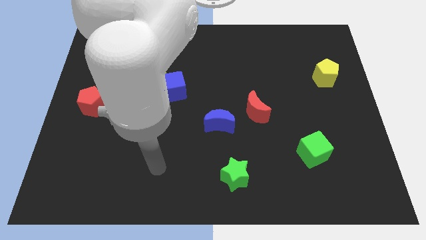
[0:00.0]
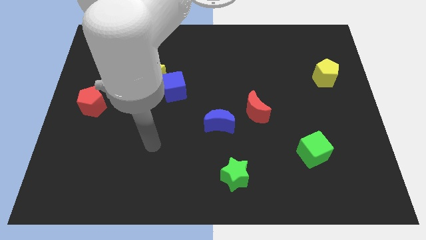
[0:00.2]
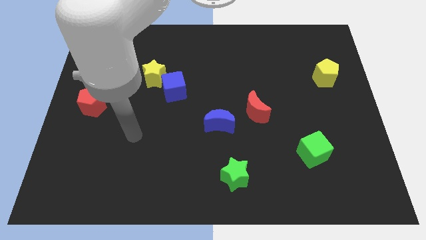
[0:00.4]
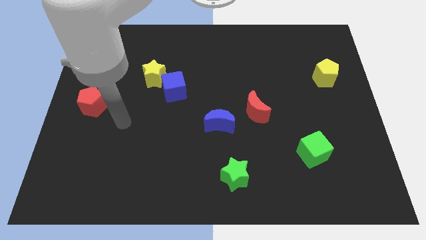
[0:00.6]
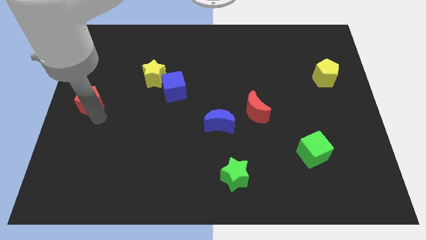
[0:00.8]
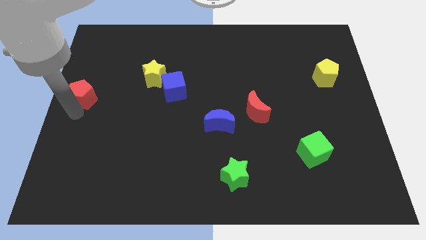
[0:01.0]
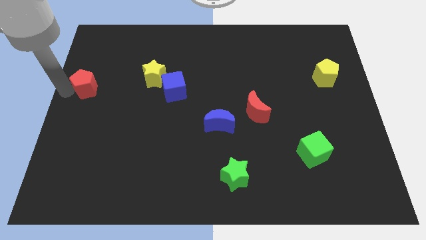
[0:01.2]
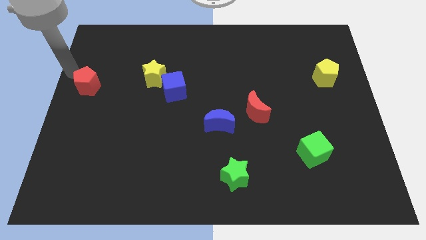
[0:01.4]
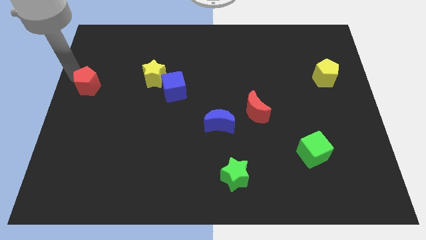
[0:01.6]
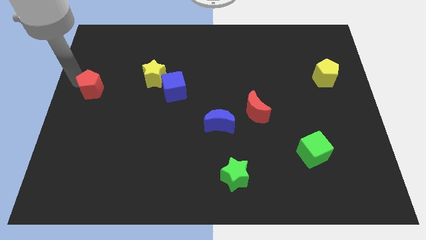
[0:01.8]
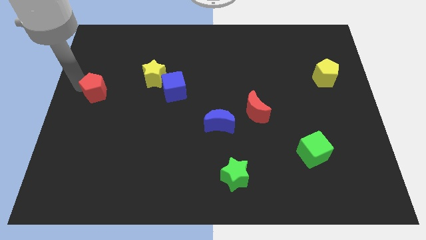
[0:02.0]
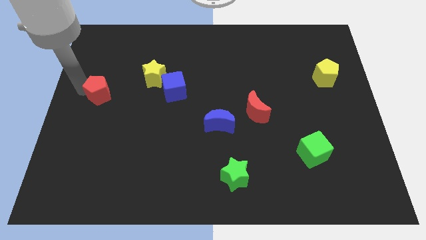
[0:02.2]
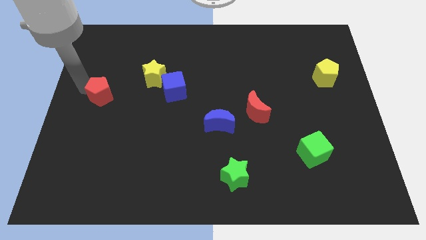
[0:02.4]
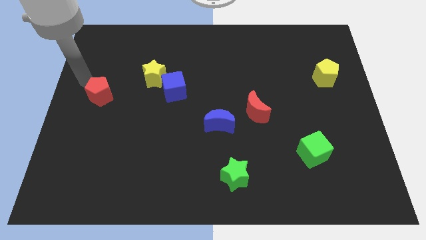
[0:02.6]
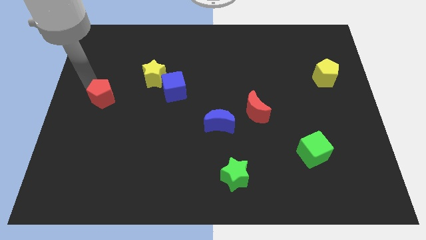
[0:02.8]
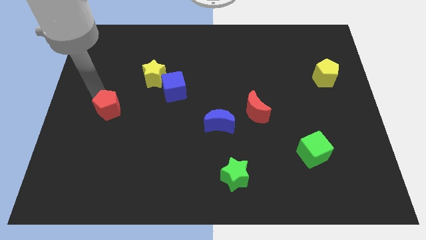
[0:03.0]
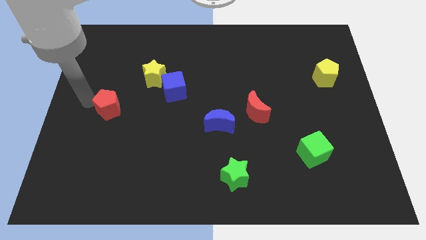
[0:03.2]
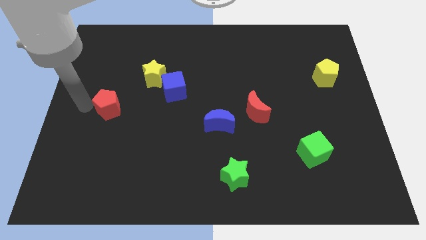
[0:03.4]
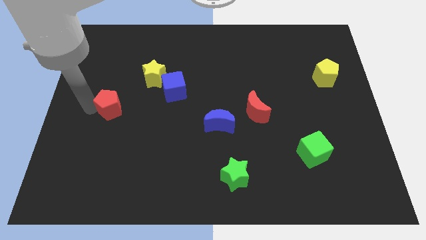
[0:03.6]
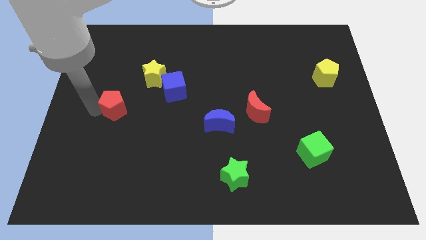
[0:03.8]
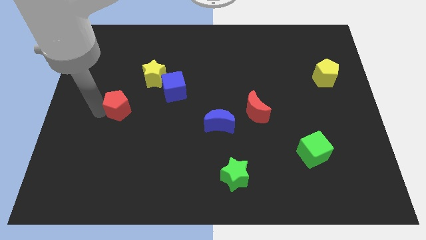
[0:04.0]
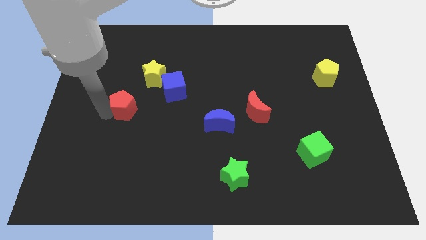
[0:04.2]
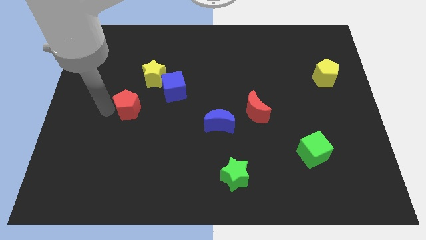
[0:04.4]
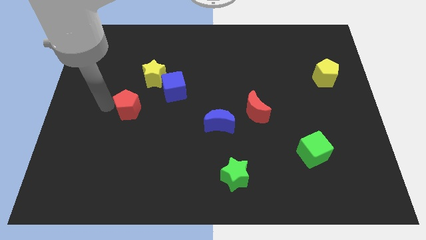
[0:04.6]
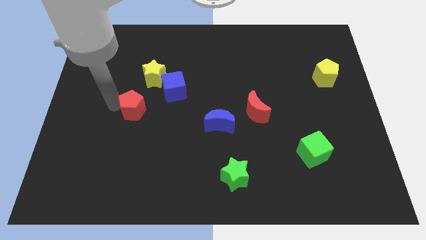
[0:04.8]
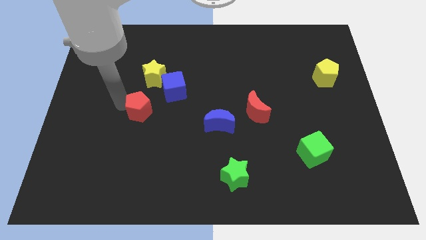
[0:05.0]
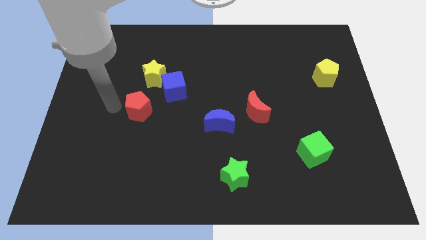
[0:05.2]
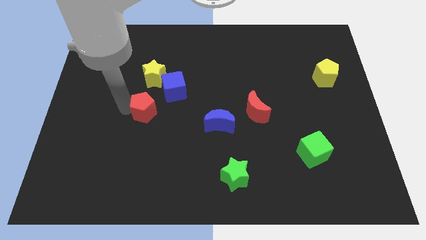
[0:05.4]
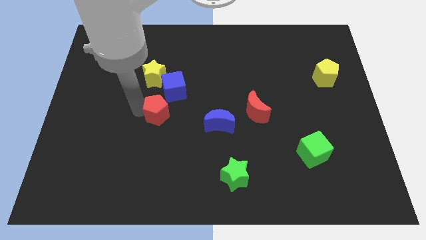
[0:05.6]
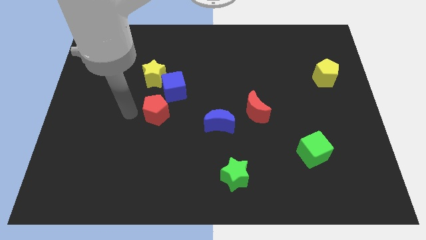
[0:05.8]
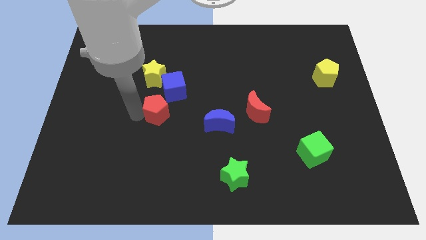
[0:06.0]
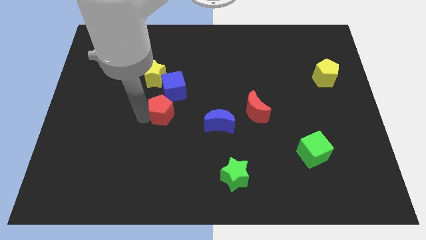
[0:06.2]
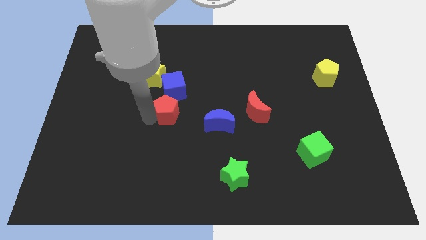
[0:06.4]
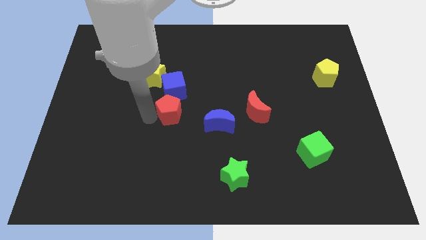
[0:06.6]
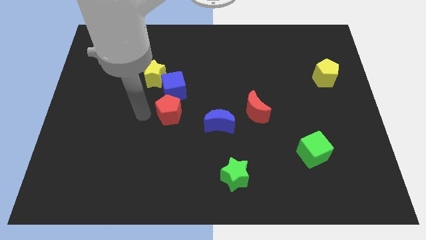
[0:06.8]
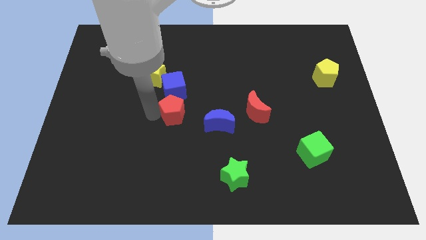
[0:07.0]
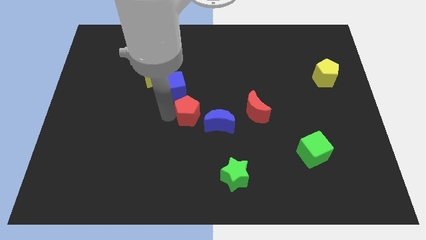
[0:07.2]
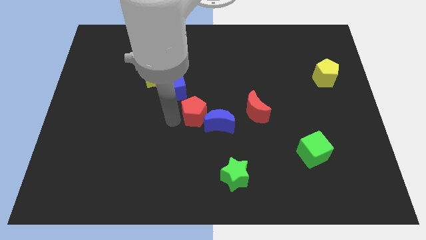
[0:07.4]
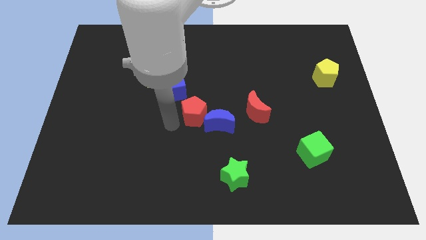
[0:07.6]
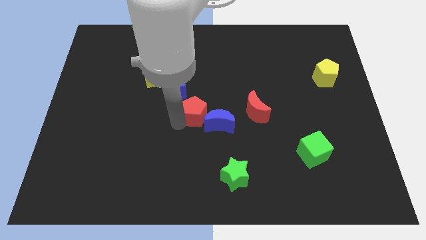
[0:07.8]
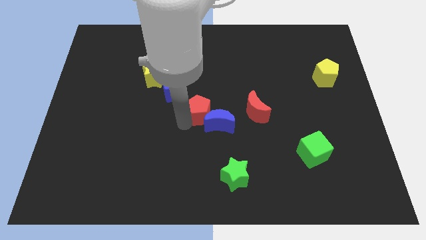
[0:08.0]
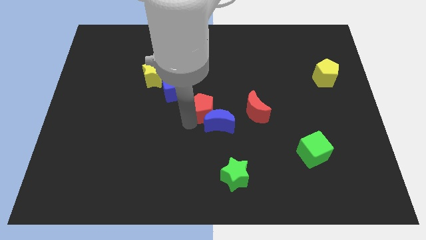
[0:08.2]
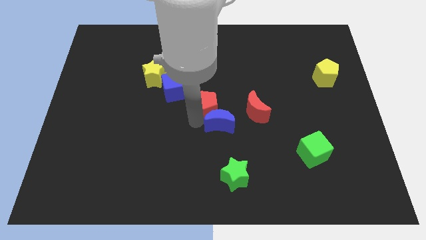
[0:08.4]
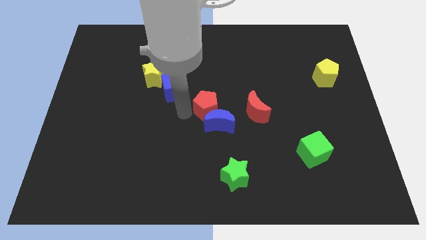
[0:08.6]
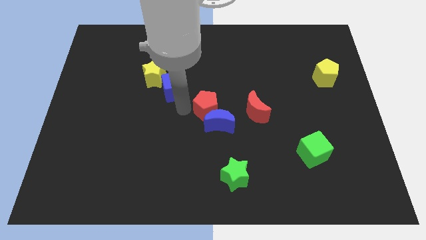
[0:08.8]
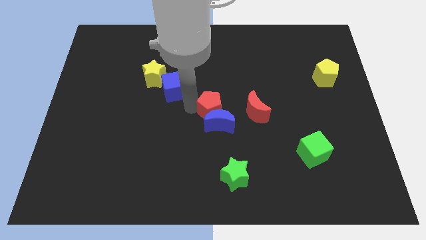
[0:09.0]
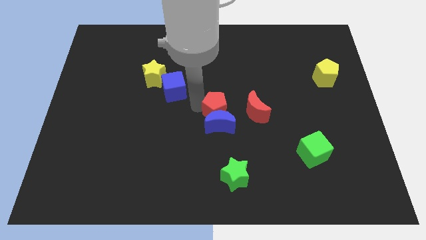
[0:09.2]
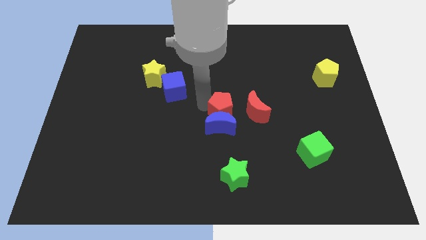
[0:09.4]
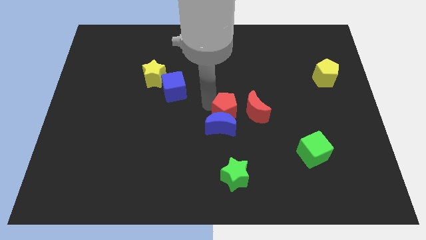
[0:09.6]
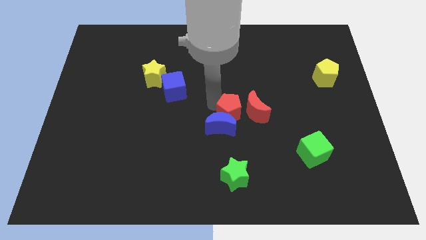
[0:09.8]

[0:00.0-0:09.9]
slide the red pentagon towards the red moon

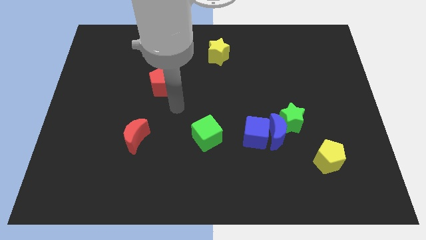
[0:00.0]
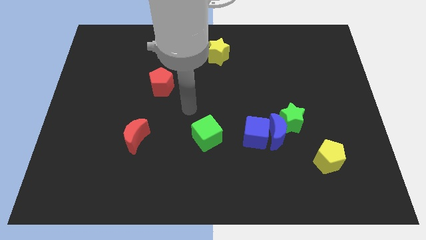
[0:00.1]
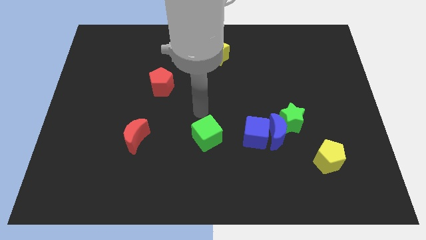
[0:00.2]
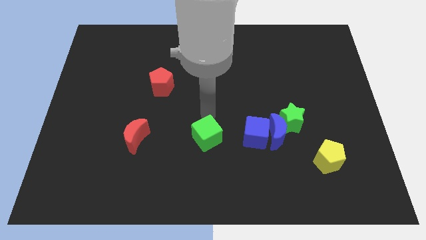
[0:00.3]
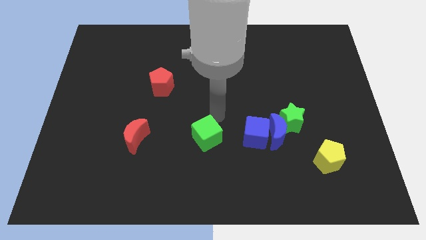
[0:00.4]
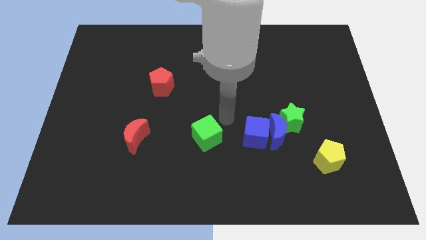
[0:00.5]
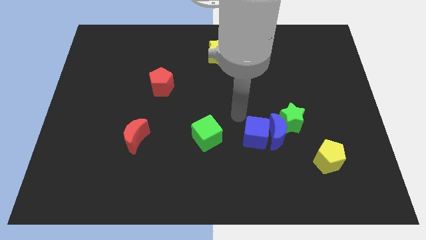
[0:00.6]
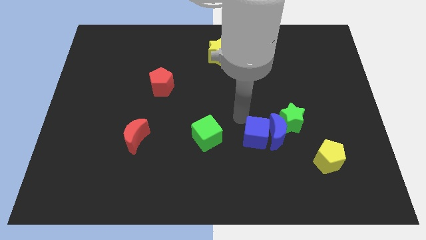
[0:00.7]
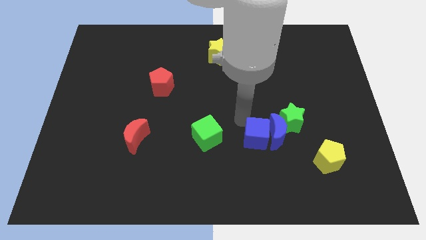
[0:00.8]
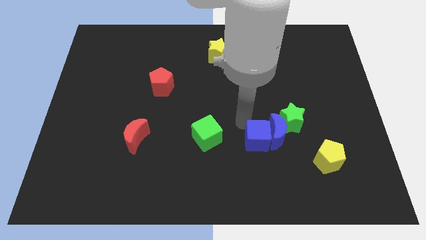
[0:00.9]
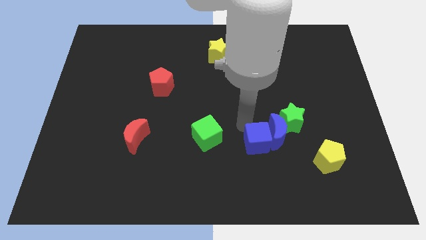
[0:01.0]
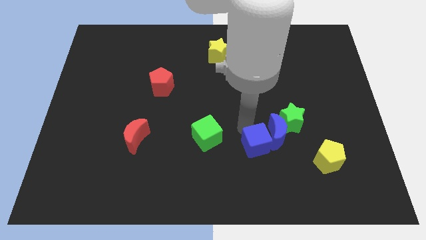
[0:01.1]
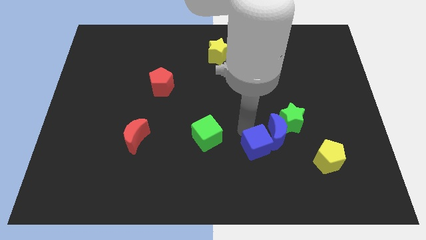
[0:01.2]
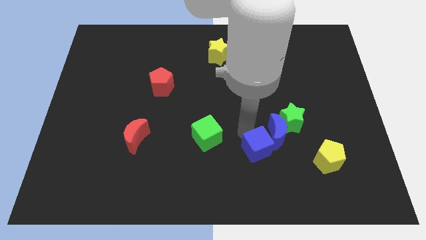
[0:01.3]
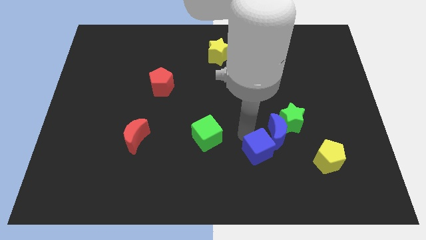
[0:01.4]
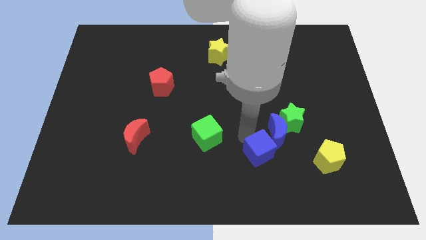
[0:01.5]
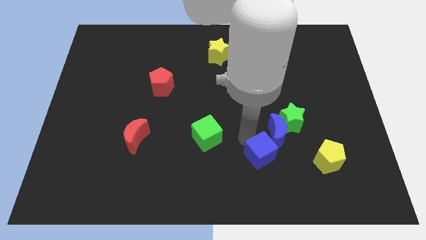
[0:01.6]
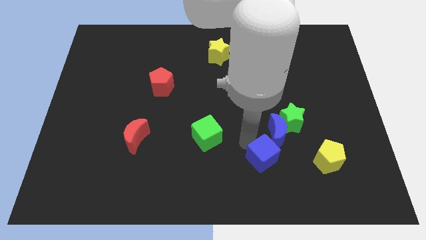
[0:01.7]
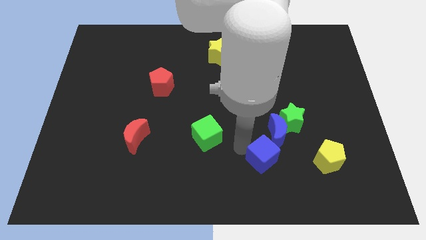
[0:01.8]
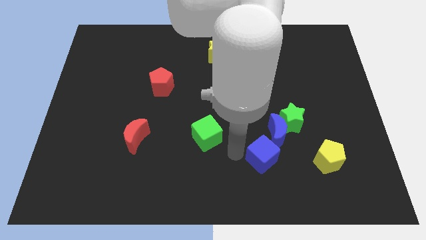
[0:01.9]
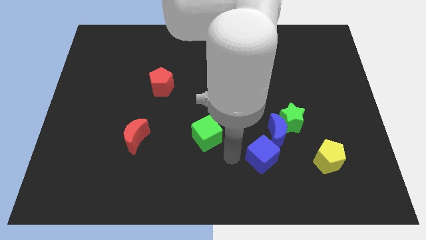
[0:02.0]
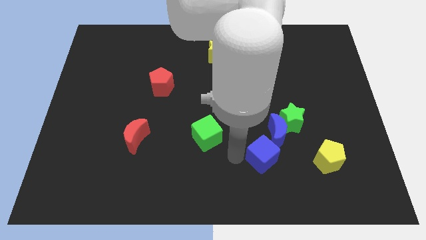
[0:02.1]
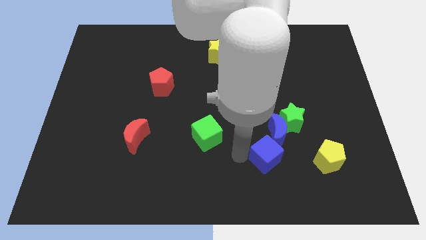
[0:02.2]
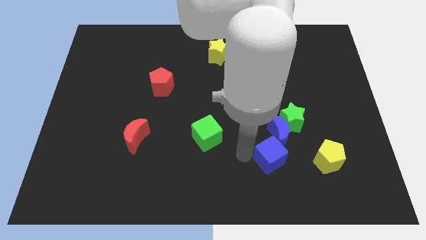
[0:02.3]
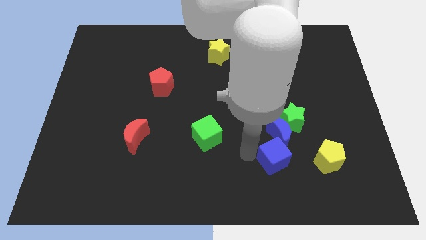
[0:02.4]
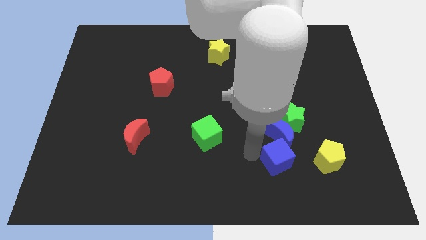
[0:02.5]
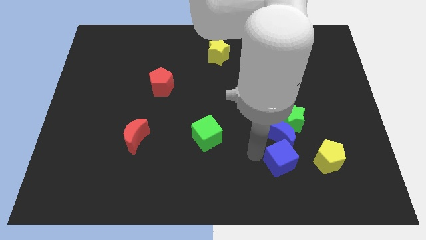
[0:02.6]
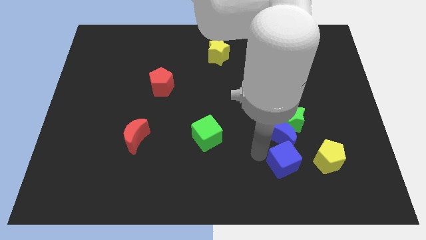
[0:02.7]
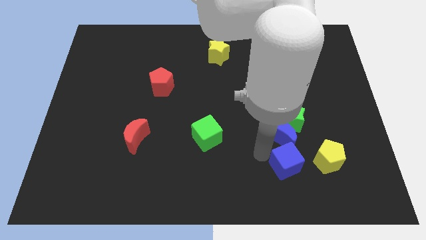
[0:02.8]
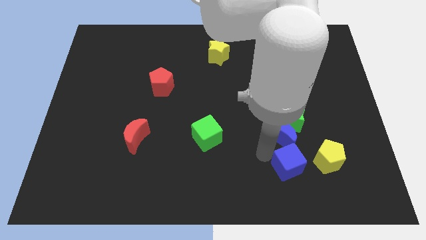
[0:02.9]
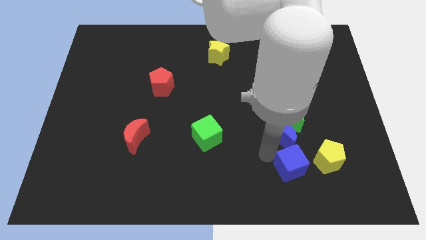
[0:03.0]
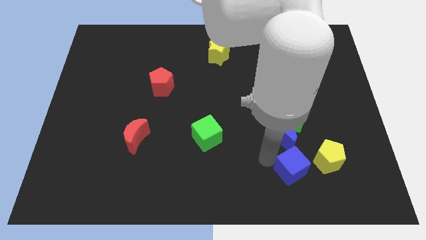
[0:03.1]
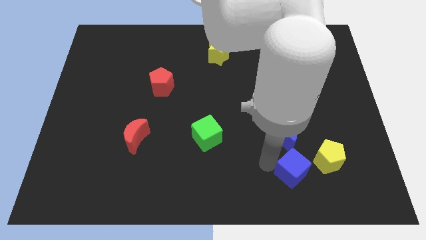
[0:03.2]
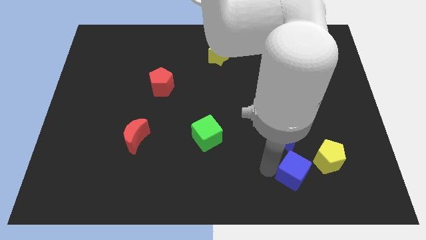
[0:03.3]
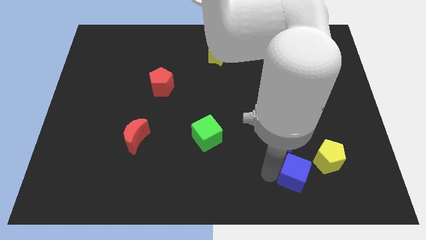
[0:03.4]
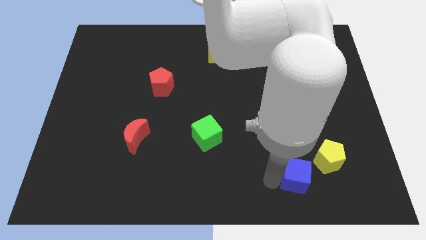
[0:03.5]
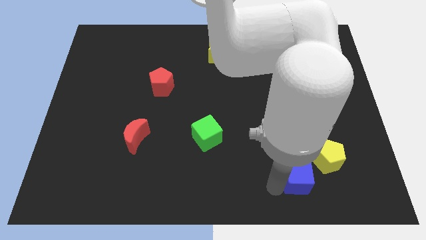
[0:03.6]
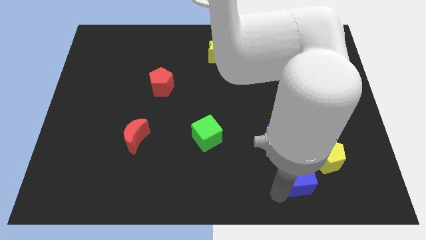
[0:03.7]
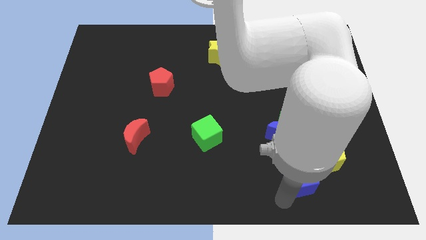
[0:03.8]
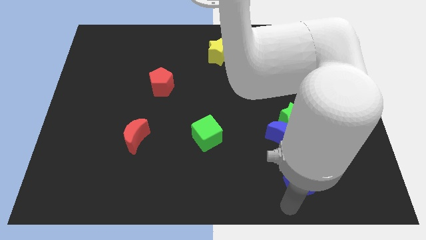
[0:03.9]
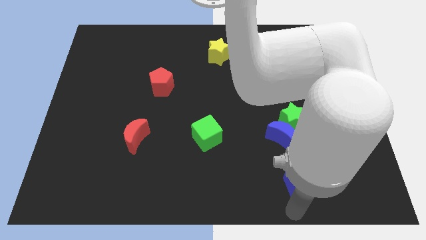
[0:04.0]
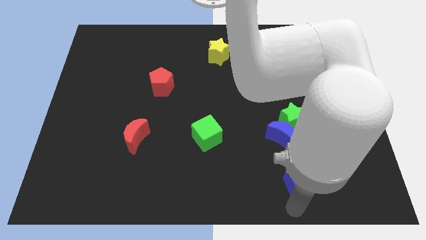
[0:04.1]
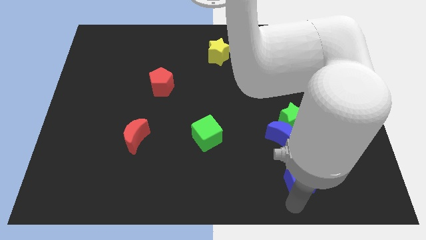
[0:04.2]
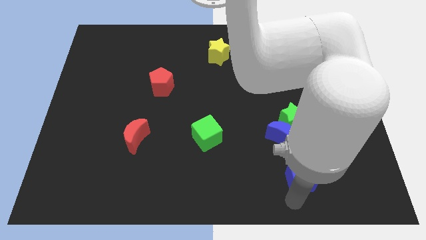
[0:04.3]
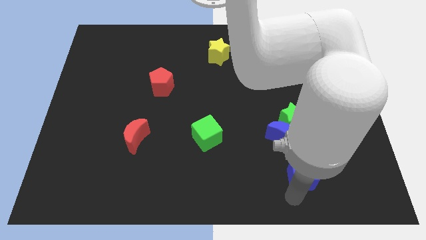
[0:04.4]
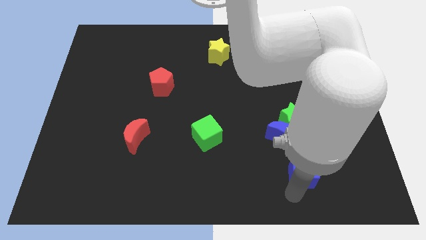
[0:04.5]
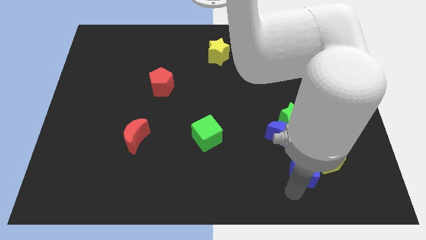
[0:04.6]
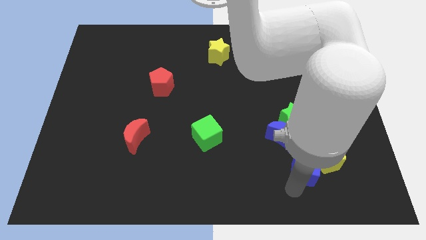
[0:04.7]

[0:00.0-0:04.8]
slide the blue cube close to the yellow pentagon
